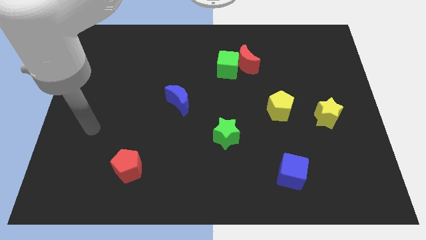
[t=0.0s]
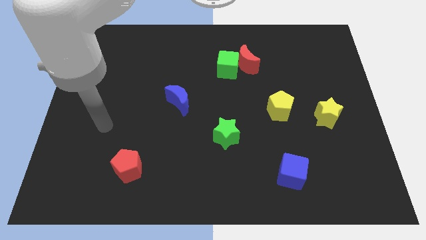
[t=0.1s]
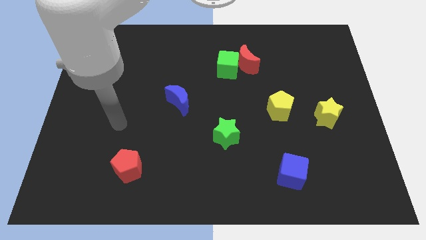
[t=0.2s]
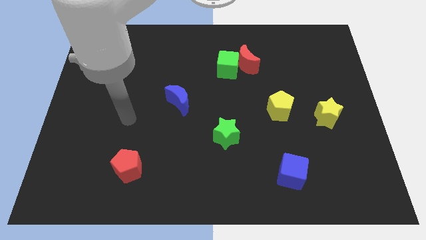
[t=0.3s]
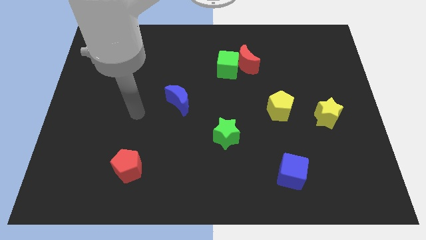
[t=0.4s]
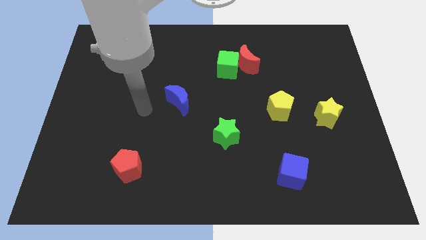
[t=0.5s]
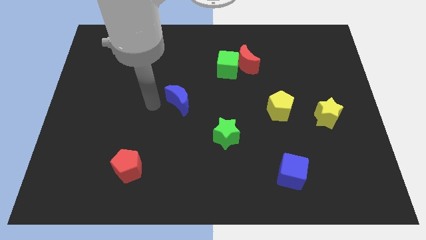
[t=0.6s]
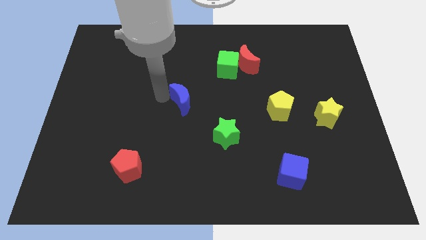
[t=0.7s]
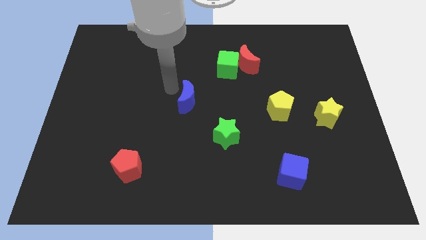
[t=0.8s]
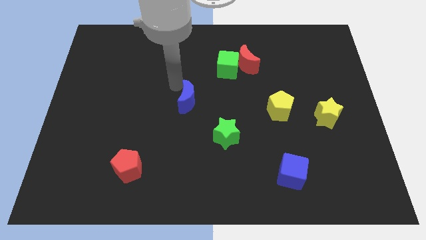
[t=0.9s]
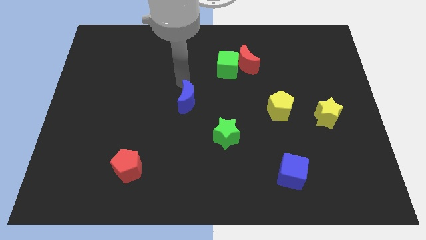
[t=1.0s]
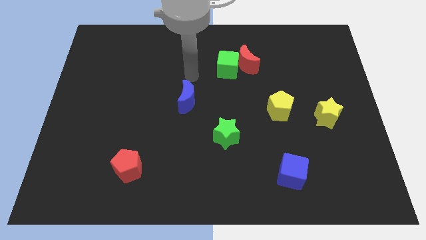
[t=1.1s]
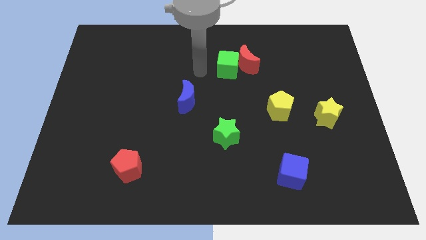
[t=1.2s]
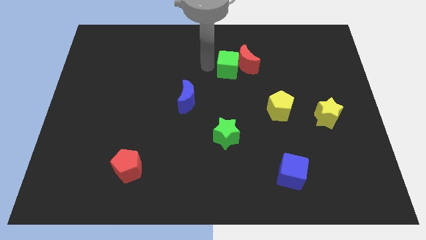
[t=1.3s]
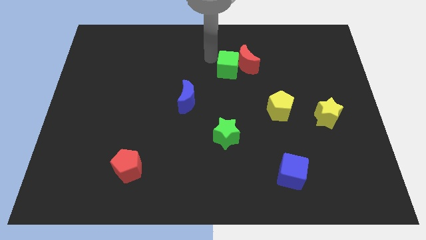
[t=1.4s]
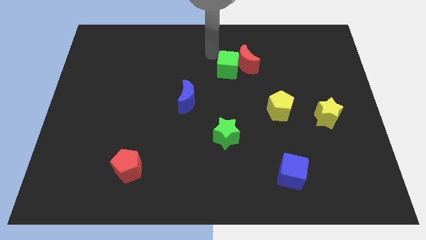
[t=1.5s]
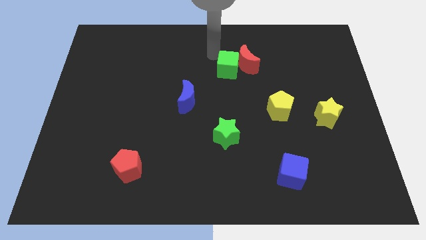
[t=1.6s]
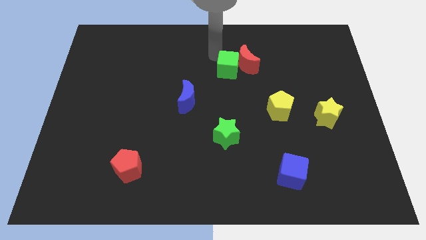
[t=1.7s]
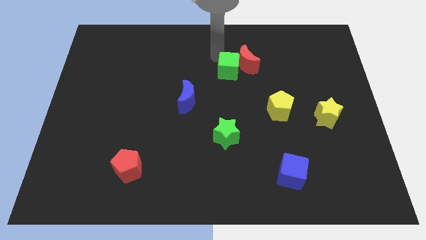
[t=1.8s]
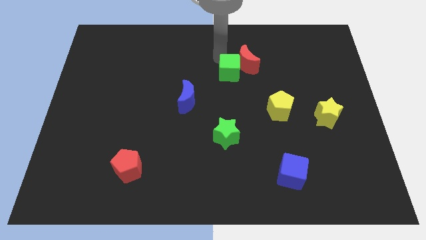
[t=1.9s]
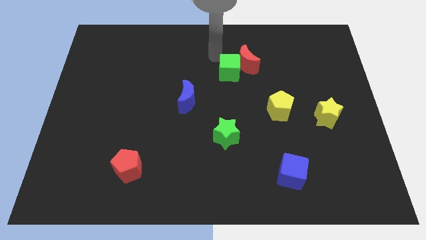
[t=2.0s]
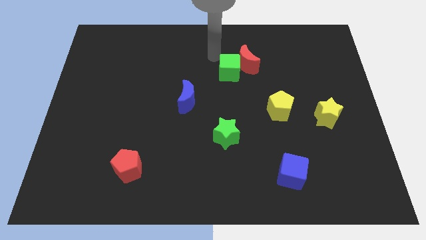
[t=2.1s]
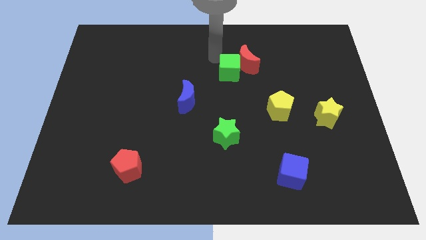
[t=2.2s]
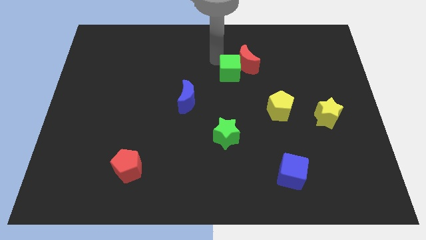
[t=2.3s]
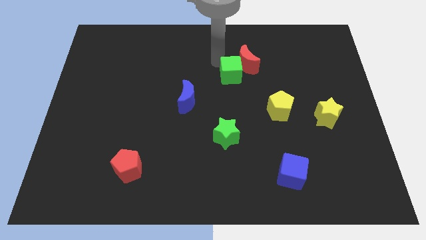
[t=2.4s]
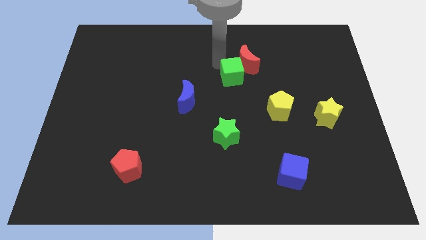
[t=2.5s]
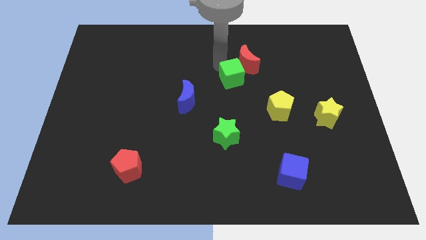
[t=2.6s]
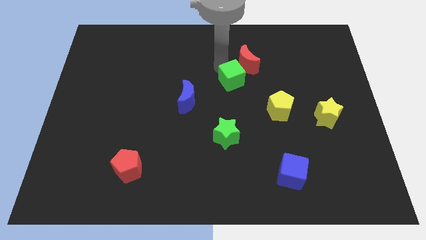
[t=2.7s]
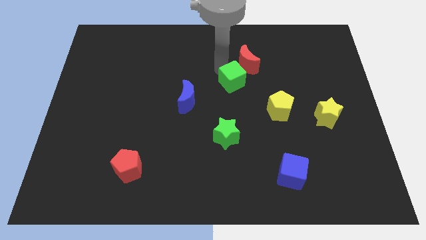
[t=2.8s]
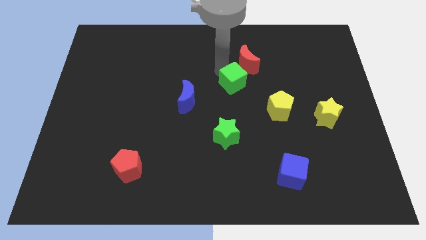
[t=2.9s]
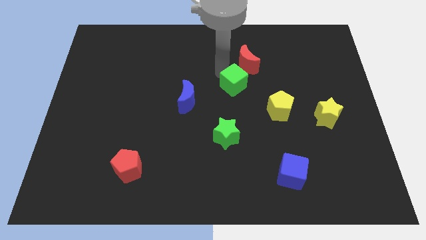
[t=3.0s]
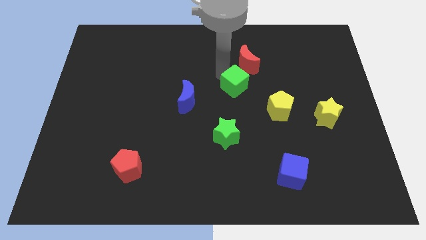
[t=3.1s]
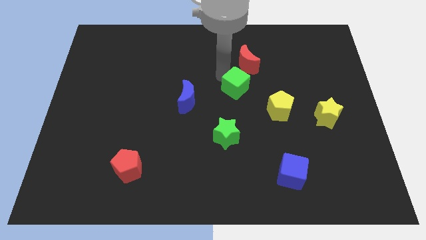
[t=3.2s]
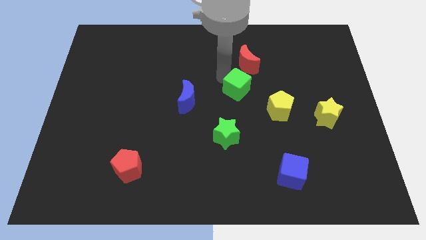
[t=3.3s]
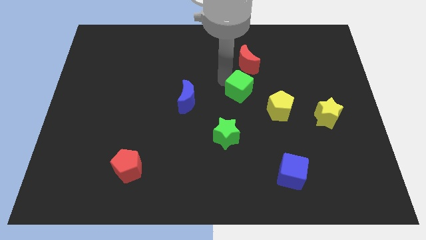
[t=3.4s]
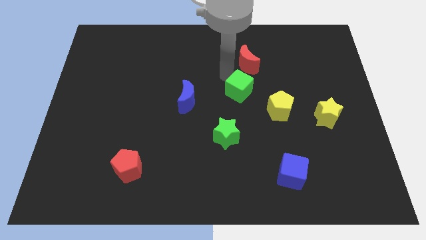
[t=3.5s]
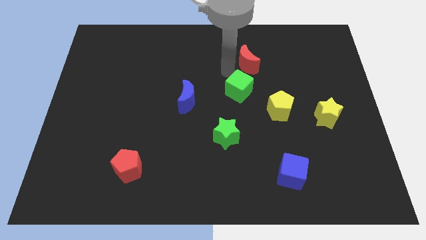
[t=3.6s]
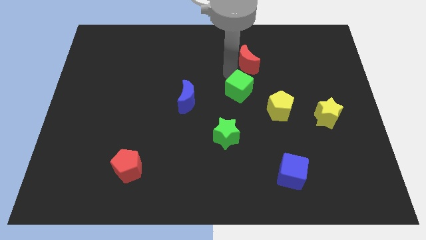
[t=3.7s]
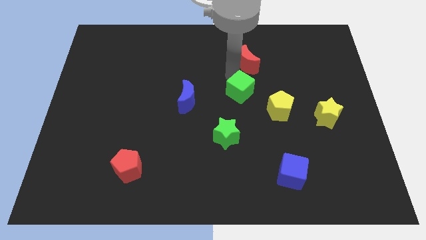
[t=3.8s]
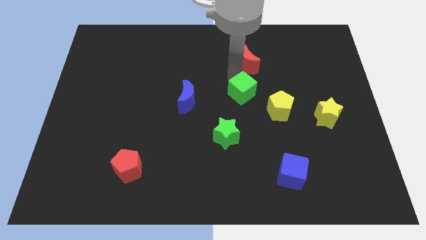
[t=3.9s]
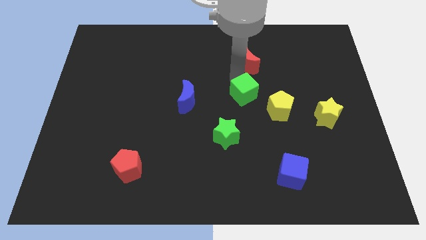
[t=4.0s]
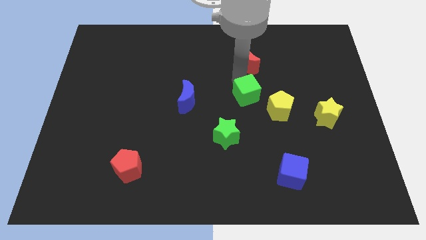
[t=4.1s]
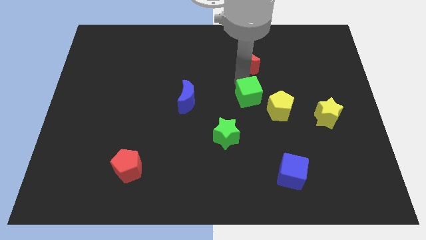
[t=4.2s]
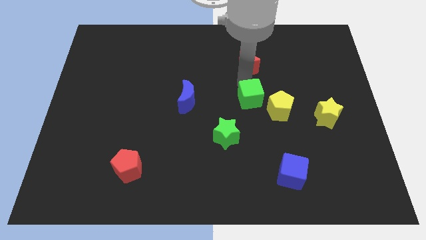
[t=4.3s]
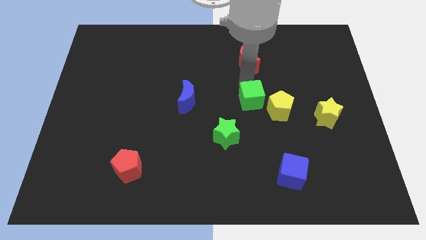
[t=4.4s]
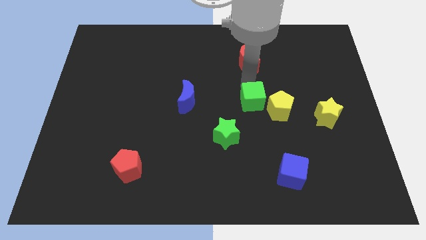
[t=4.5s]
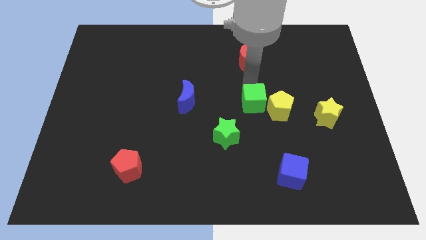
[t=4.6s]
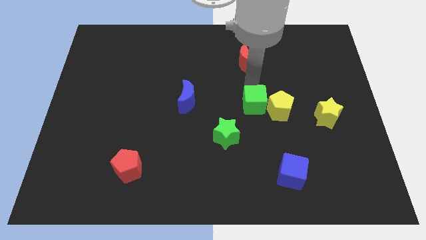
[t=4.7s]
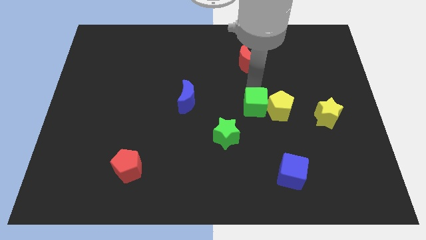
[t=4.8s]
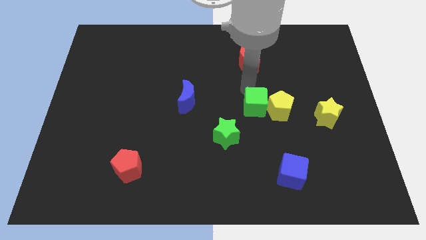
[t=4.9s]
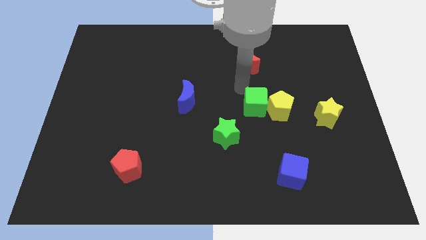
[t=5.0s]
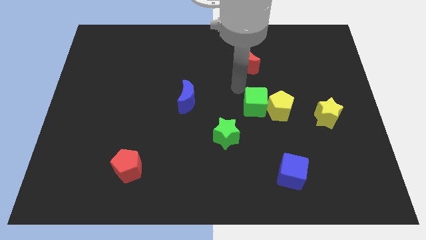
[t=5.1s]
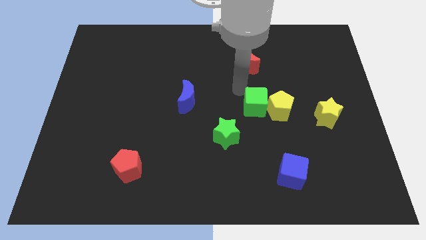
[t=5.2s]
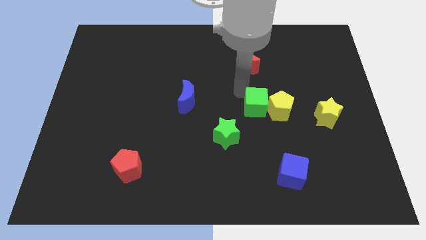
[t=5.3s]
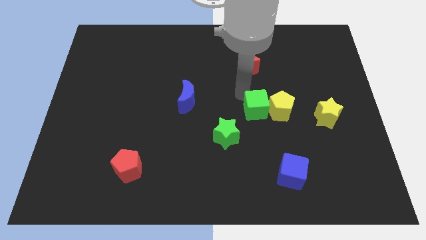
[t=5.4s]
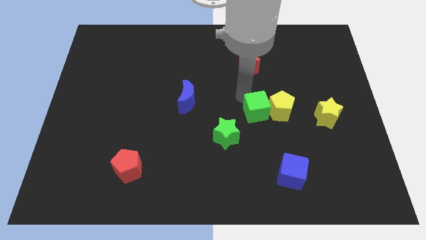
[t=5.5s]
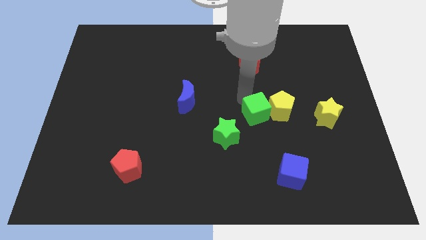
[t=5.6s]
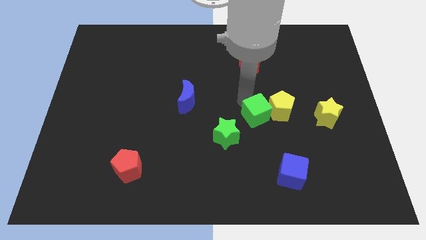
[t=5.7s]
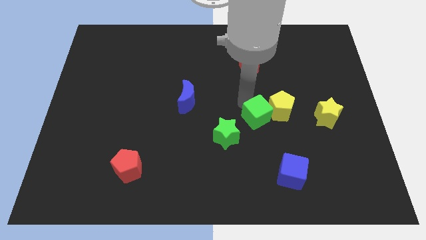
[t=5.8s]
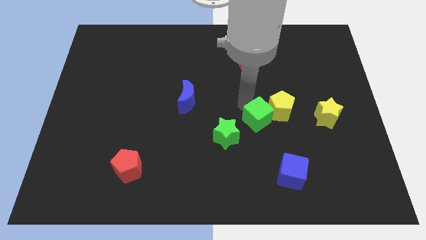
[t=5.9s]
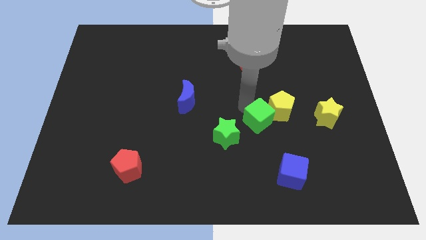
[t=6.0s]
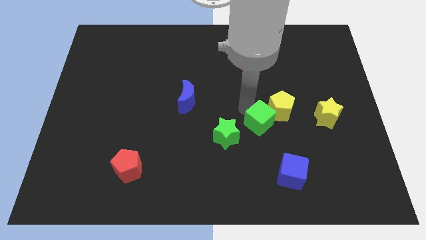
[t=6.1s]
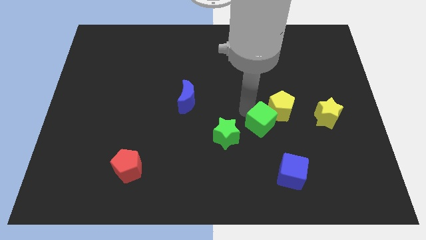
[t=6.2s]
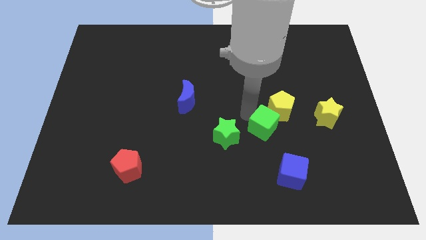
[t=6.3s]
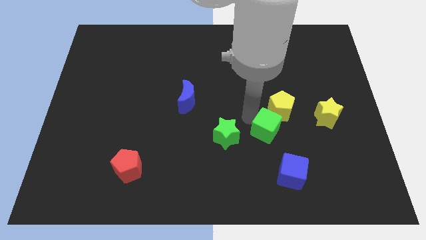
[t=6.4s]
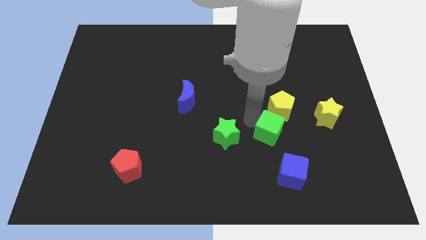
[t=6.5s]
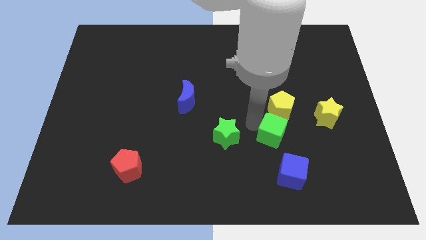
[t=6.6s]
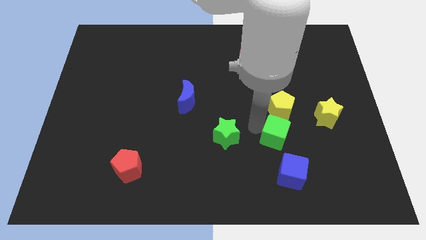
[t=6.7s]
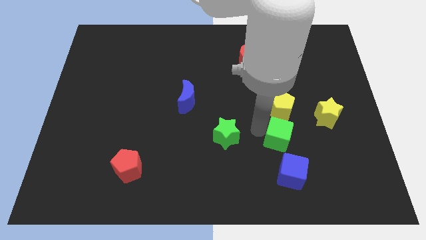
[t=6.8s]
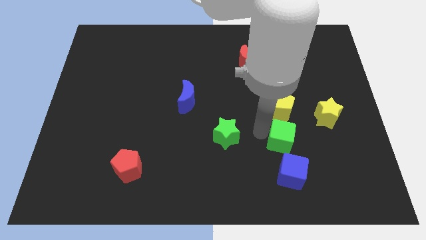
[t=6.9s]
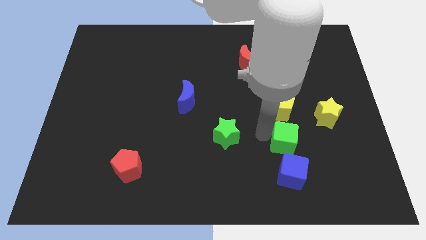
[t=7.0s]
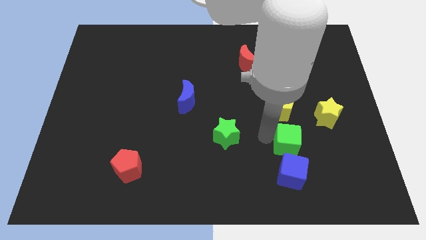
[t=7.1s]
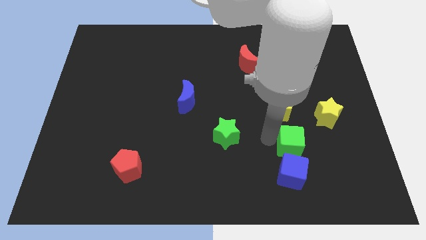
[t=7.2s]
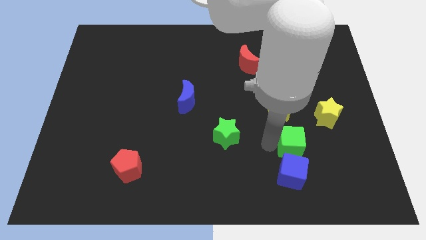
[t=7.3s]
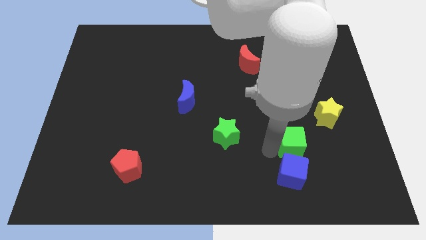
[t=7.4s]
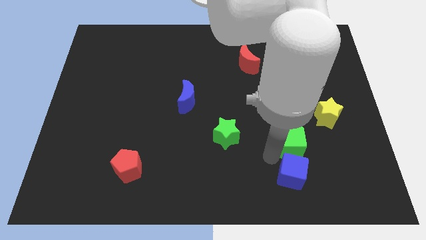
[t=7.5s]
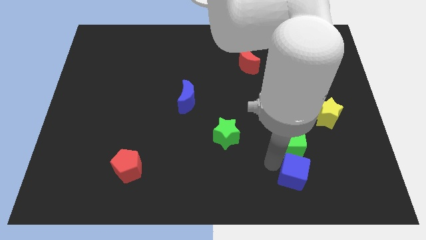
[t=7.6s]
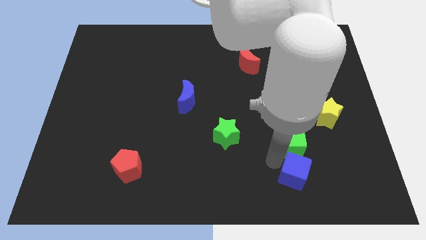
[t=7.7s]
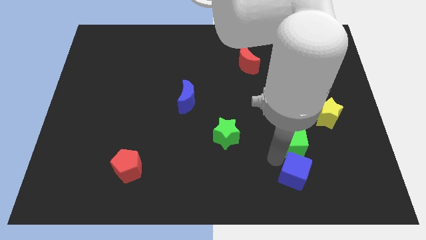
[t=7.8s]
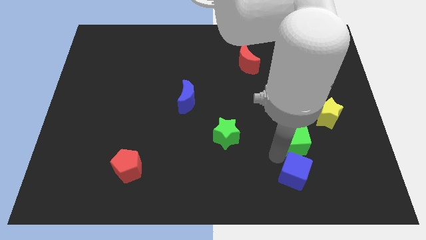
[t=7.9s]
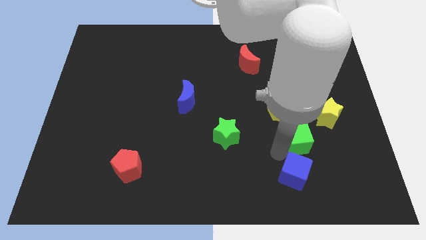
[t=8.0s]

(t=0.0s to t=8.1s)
slide the green cube diagonally down and to the right of the yellow pentagon
